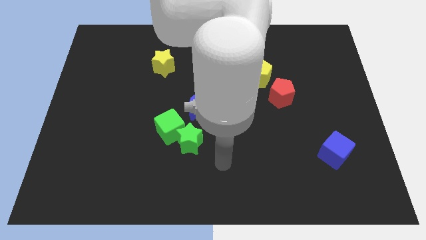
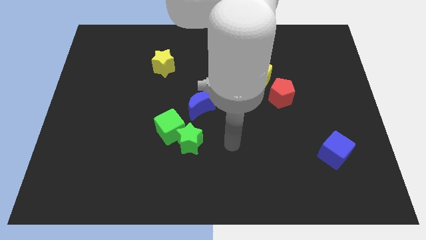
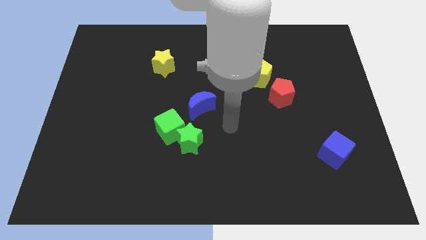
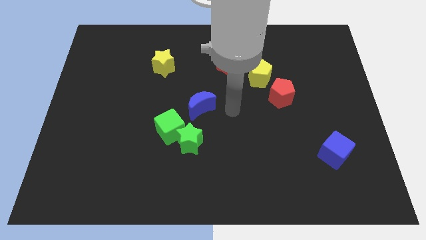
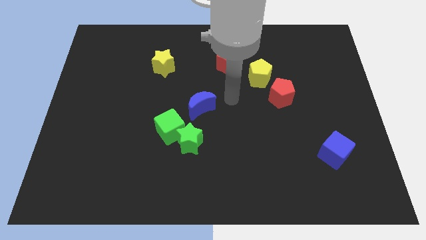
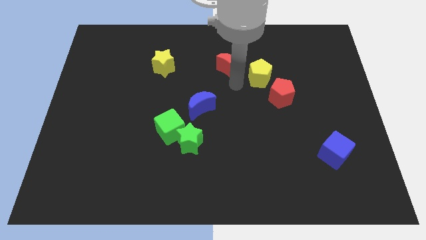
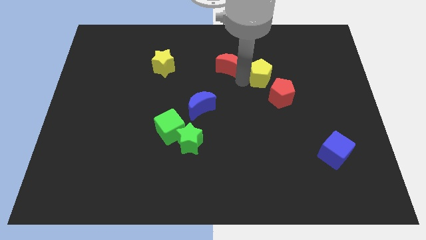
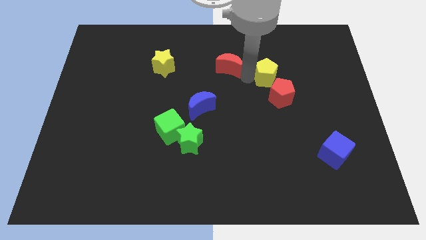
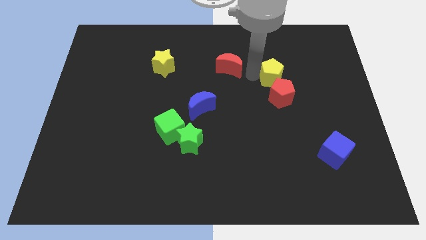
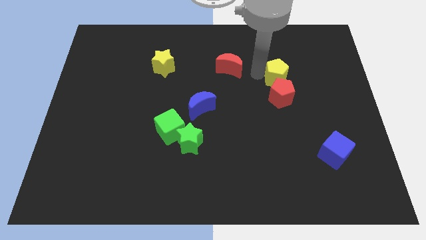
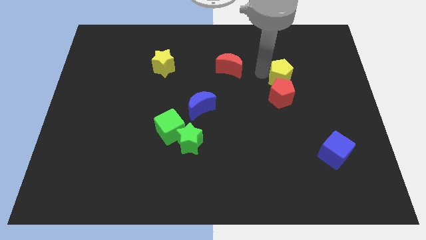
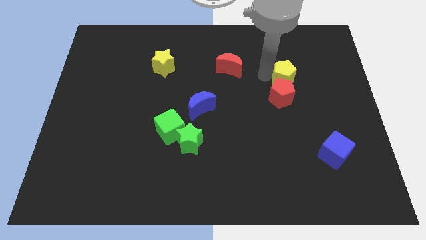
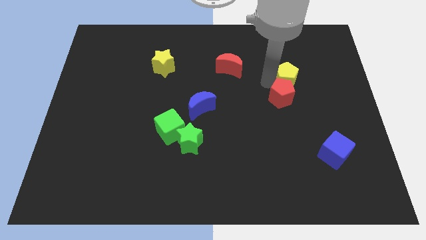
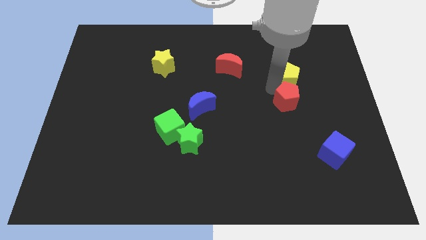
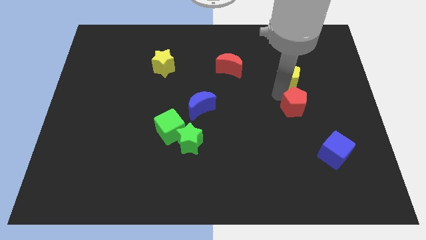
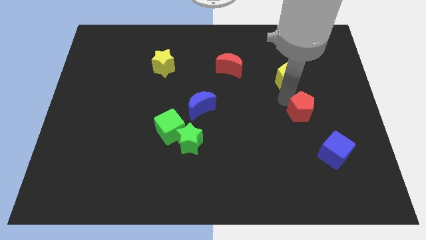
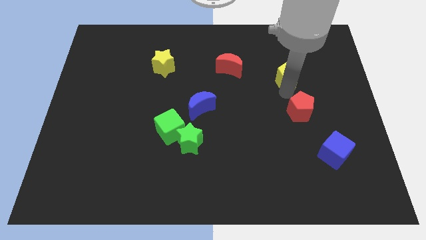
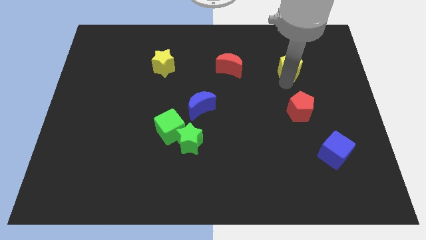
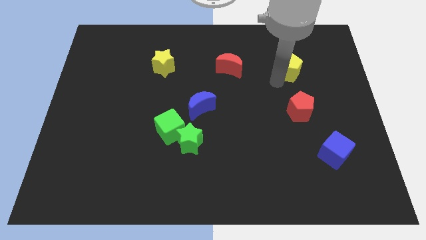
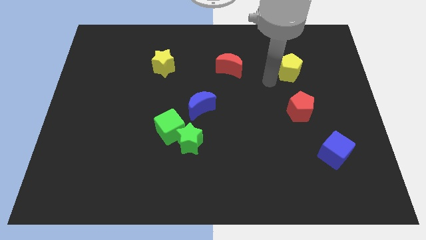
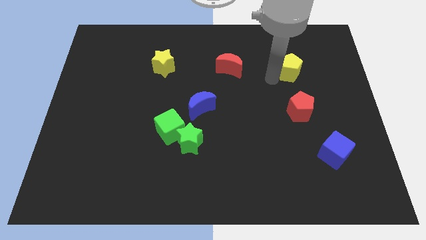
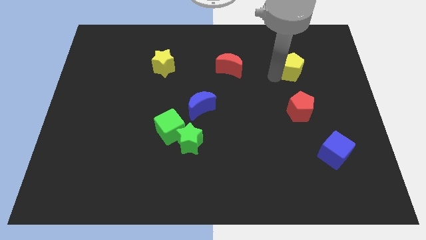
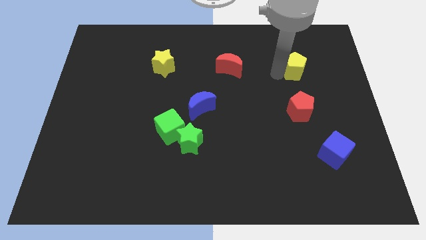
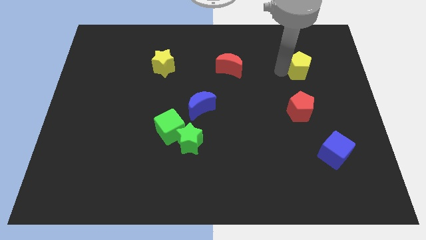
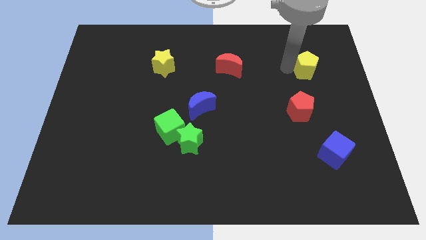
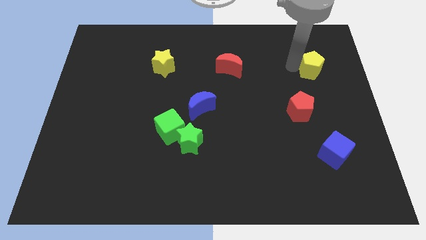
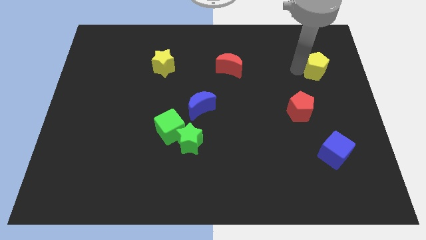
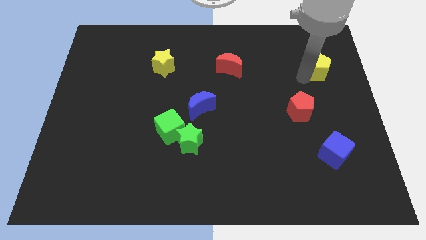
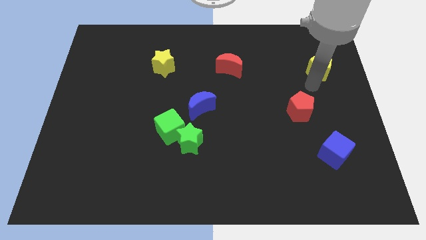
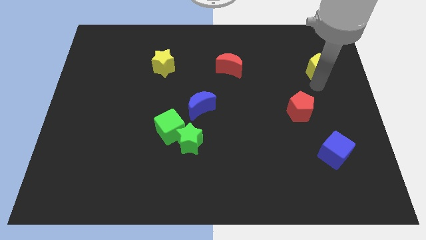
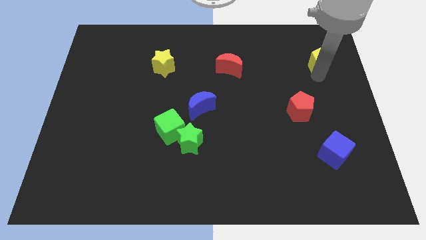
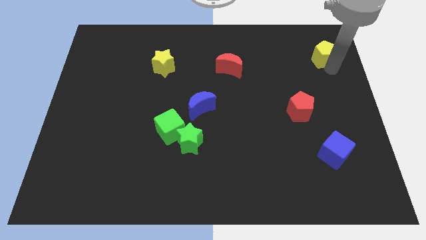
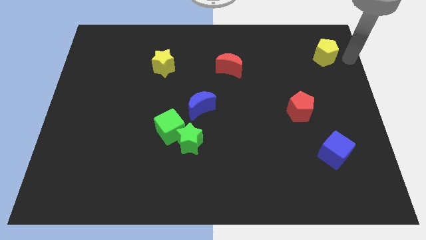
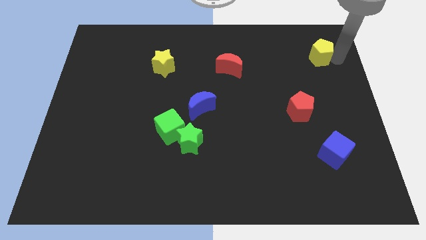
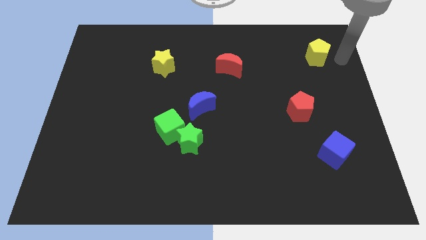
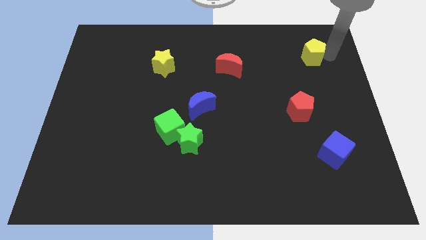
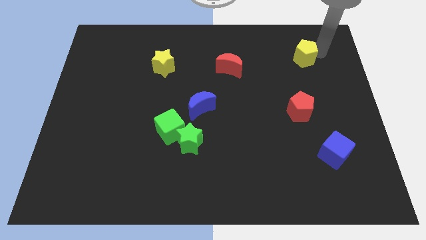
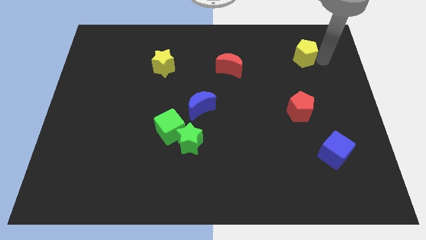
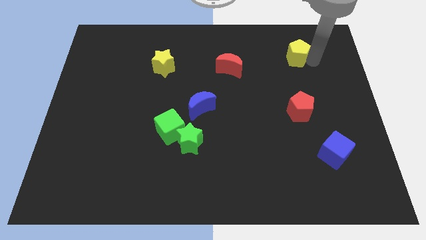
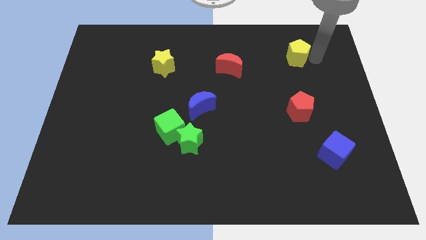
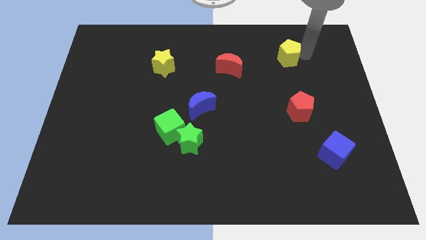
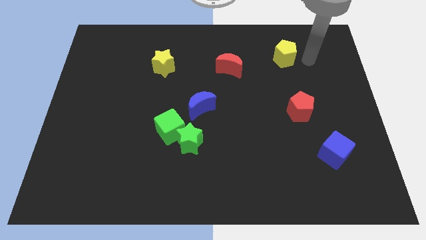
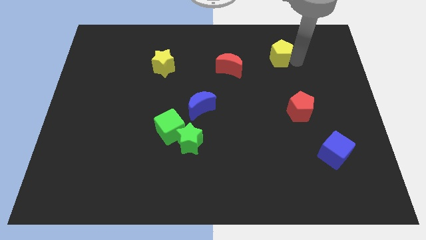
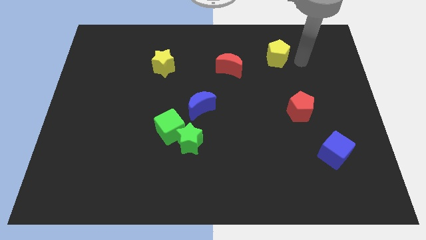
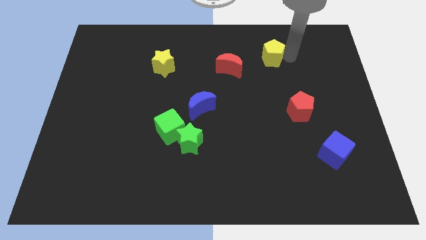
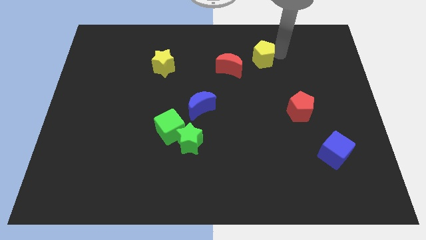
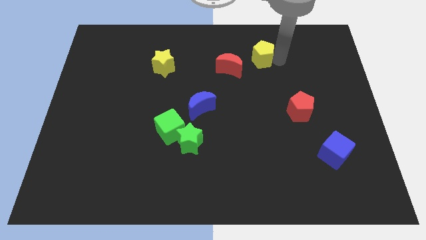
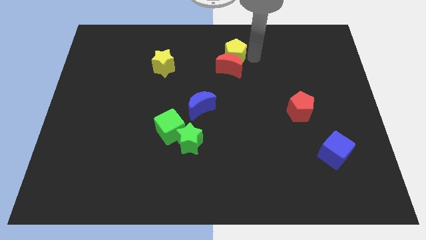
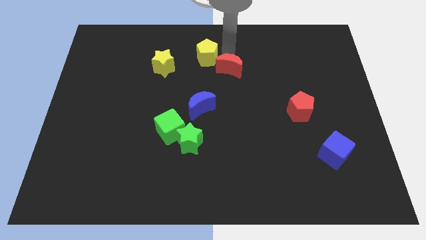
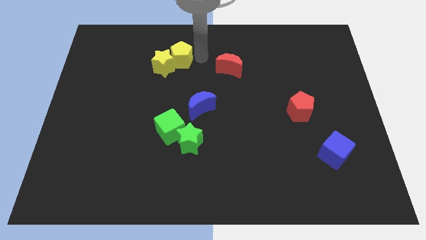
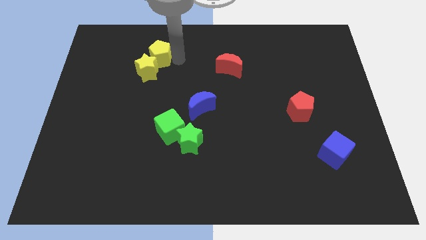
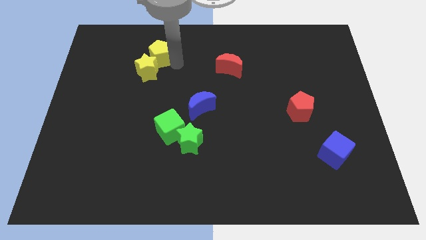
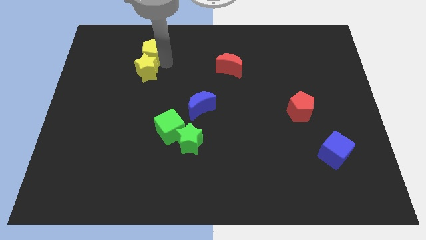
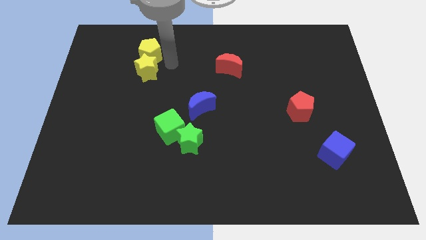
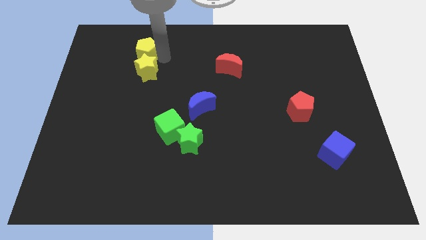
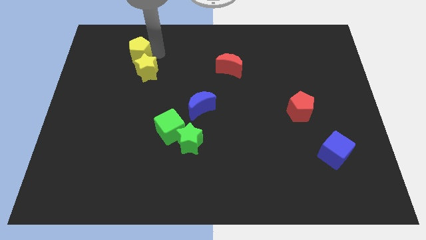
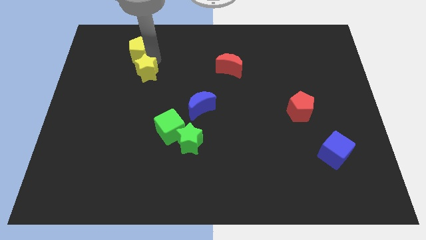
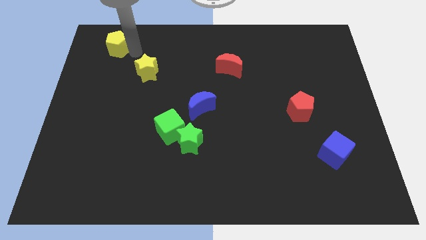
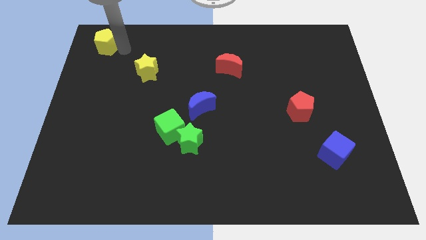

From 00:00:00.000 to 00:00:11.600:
move the yellow pentagon to the top left corner
